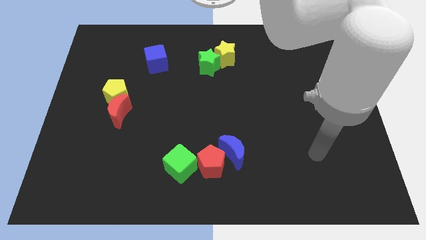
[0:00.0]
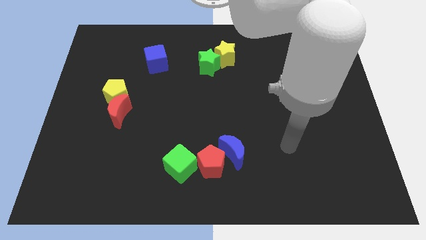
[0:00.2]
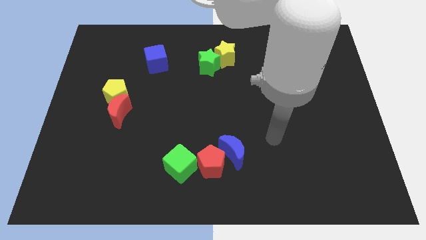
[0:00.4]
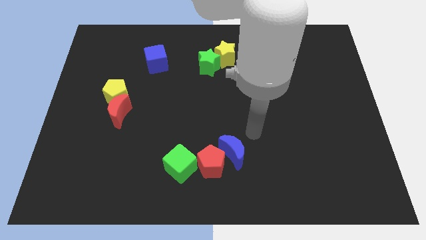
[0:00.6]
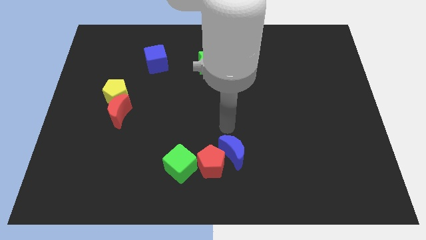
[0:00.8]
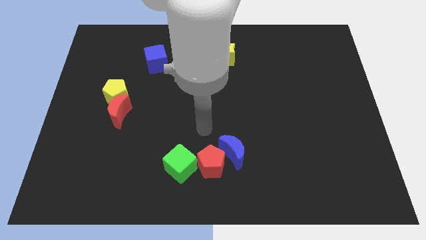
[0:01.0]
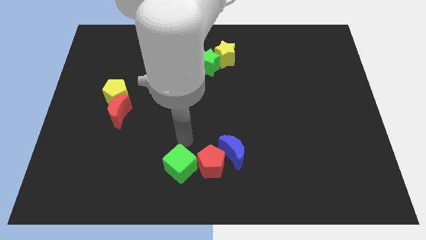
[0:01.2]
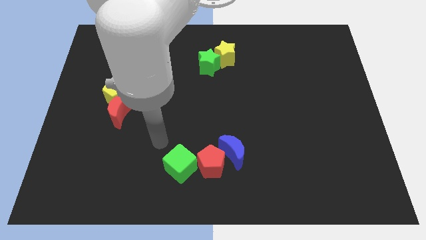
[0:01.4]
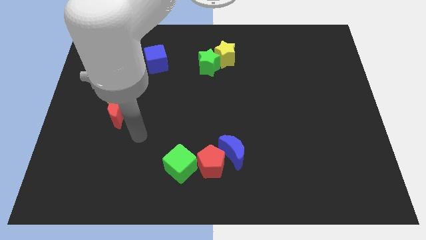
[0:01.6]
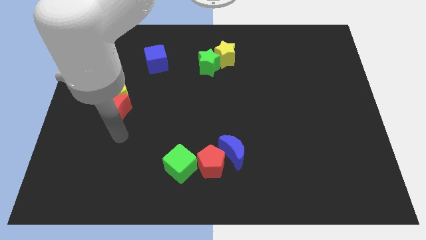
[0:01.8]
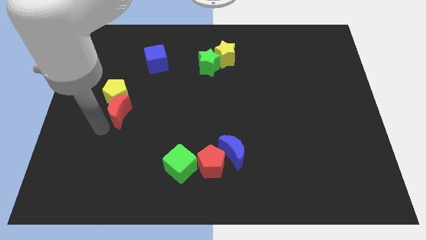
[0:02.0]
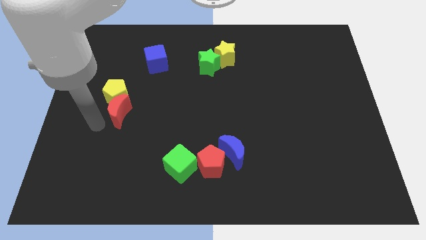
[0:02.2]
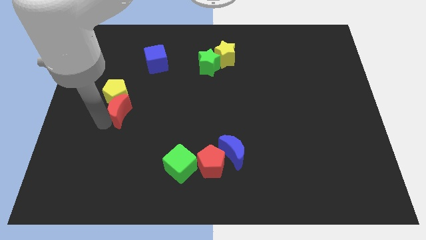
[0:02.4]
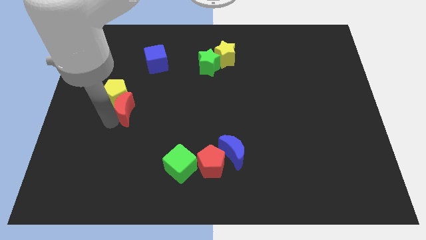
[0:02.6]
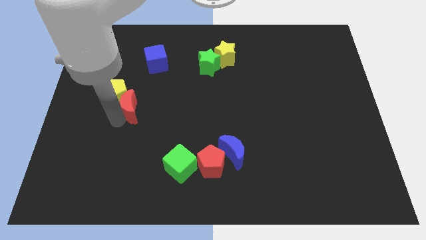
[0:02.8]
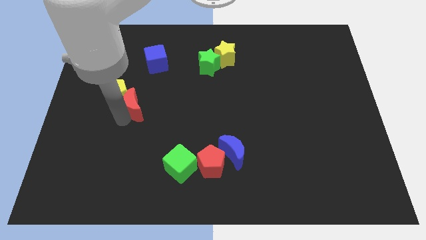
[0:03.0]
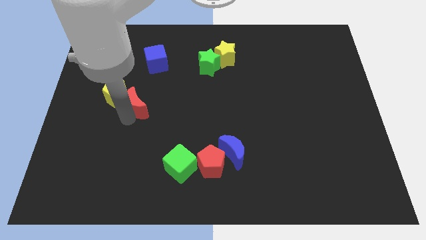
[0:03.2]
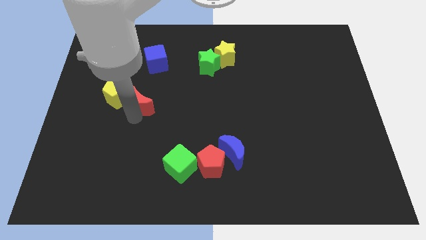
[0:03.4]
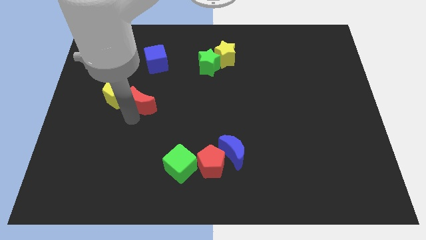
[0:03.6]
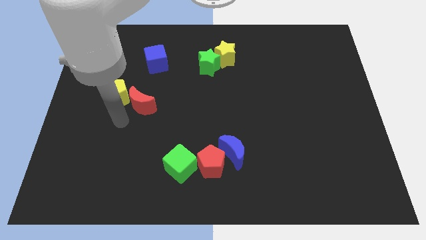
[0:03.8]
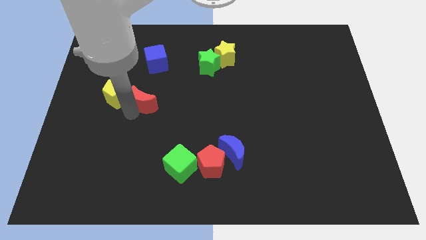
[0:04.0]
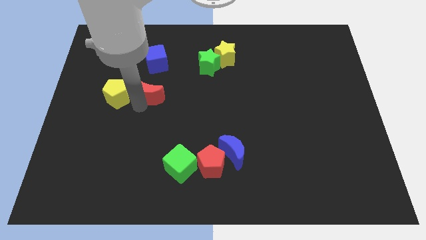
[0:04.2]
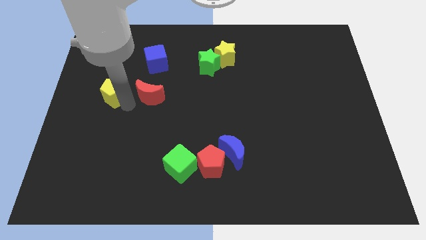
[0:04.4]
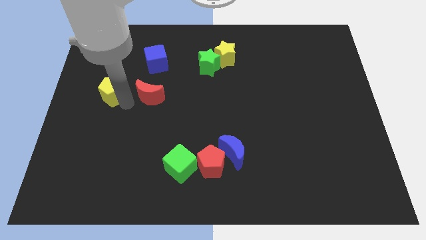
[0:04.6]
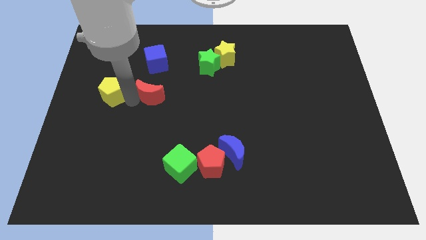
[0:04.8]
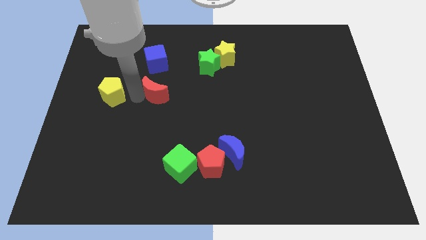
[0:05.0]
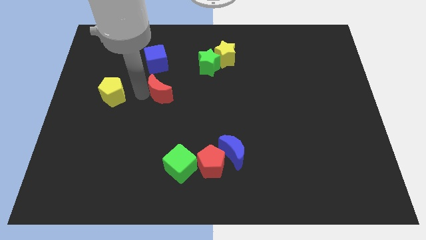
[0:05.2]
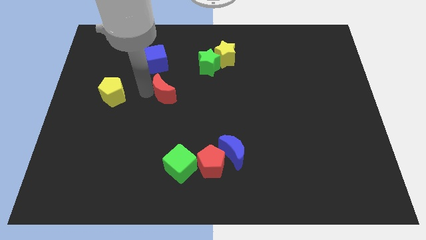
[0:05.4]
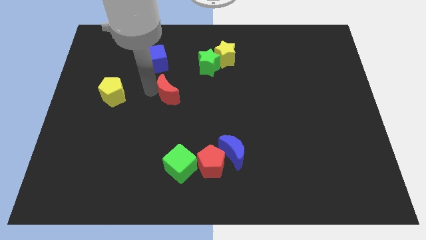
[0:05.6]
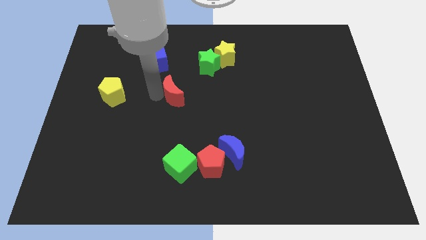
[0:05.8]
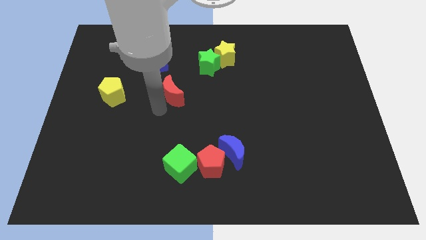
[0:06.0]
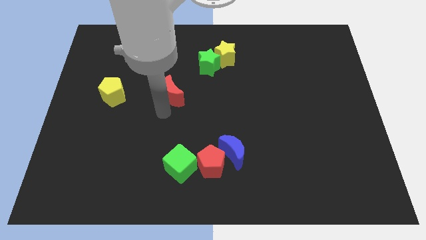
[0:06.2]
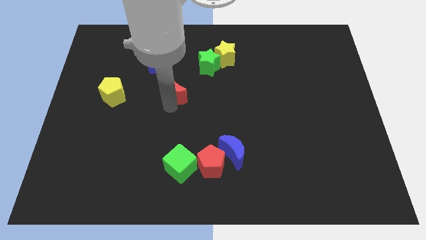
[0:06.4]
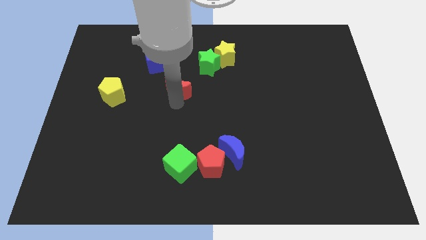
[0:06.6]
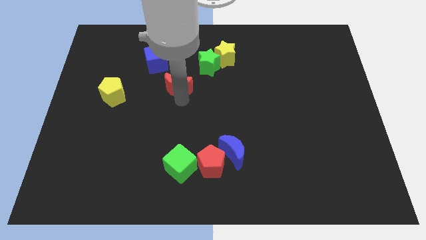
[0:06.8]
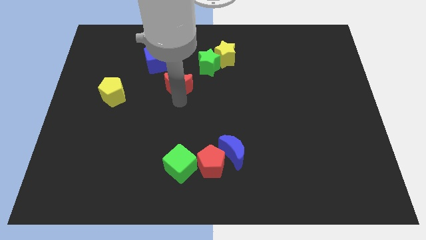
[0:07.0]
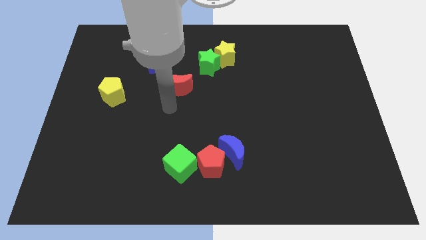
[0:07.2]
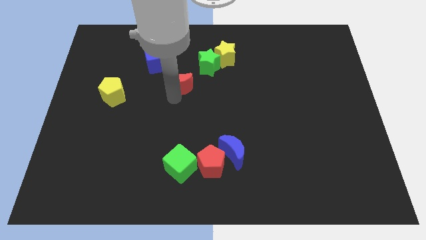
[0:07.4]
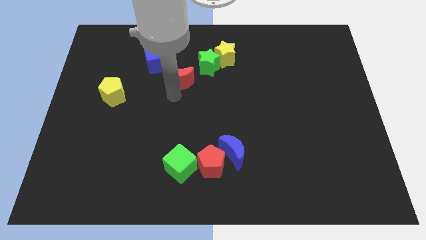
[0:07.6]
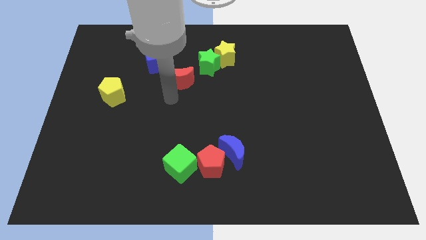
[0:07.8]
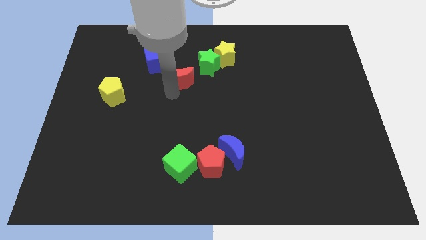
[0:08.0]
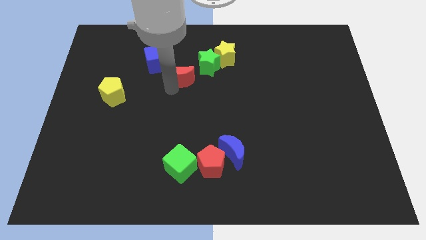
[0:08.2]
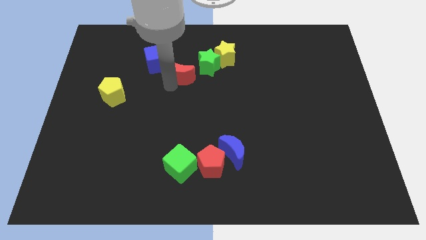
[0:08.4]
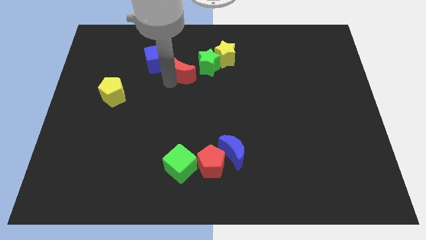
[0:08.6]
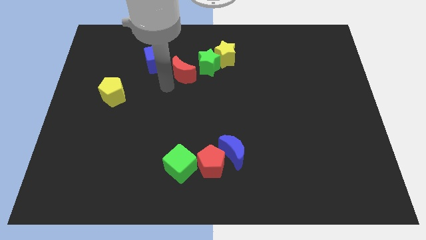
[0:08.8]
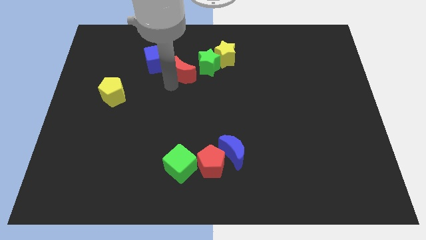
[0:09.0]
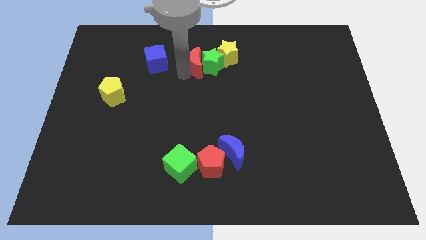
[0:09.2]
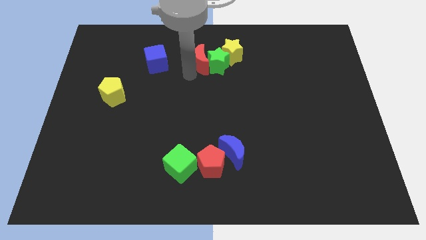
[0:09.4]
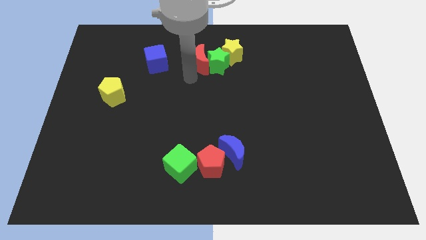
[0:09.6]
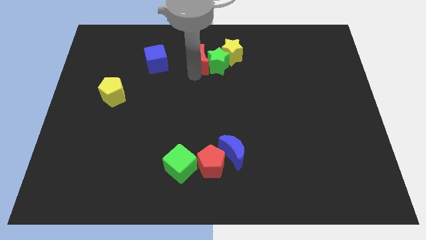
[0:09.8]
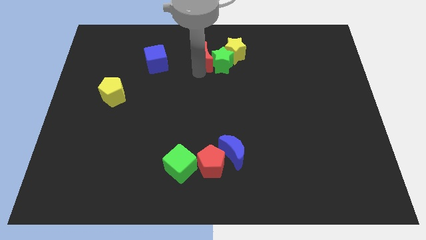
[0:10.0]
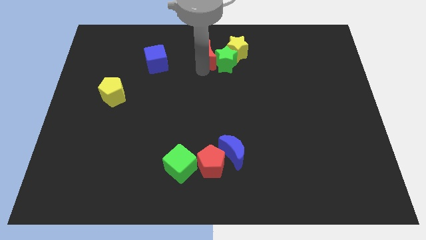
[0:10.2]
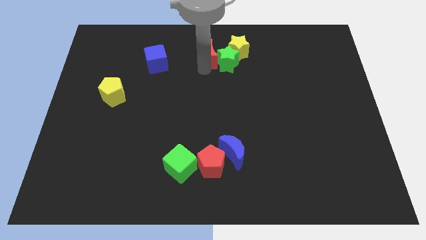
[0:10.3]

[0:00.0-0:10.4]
slide the red moon to the towards your base

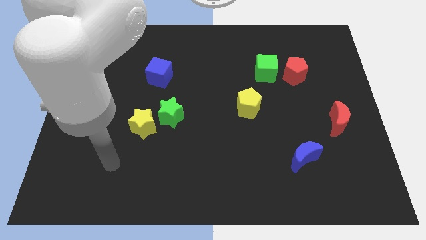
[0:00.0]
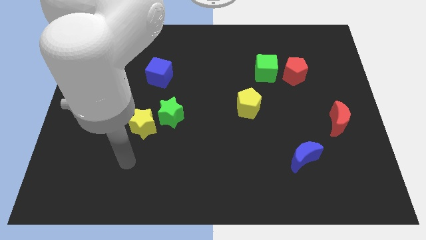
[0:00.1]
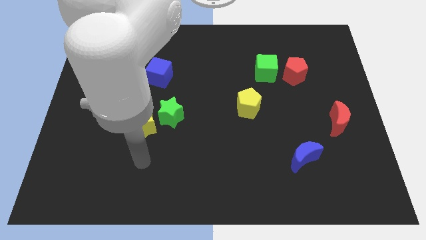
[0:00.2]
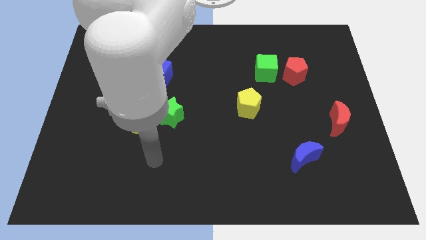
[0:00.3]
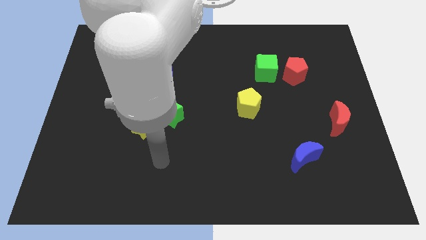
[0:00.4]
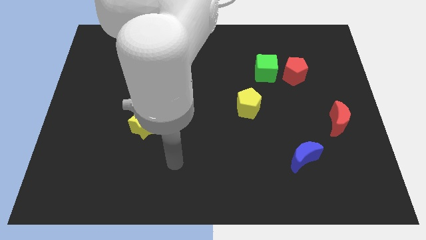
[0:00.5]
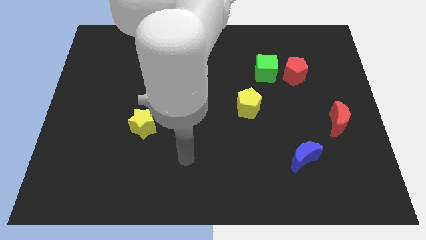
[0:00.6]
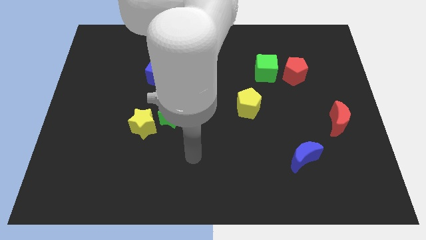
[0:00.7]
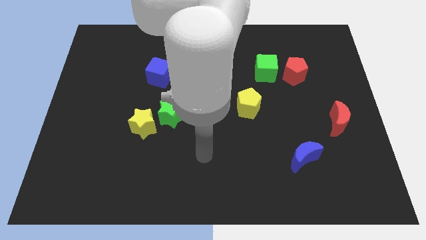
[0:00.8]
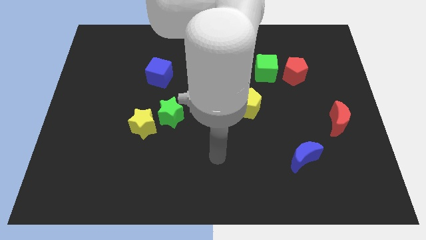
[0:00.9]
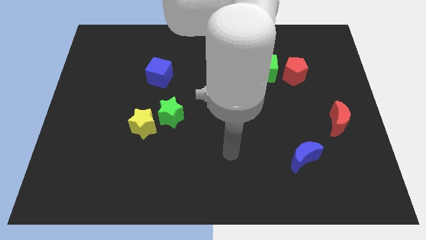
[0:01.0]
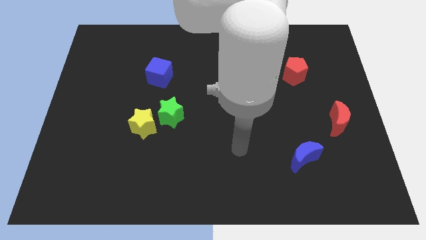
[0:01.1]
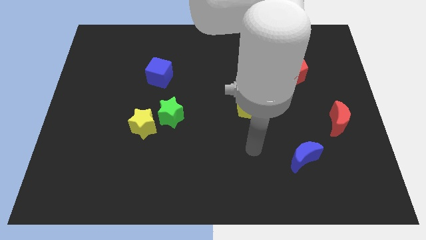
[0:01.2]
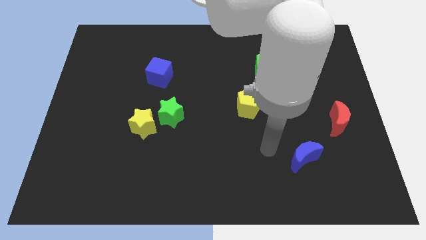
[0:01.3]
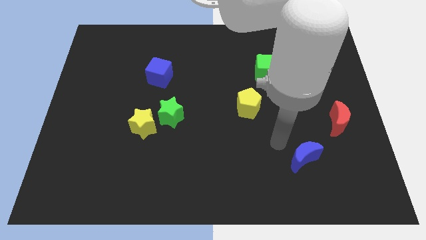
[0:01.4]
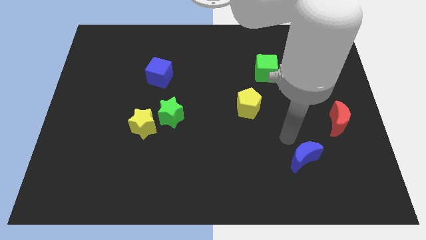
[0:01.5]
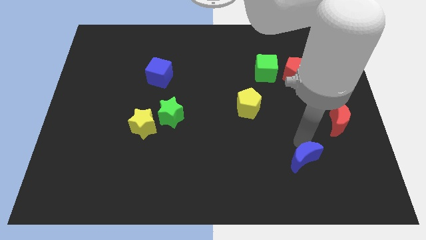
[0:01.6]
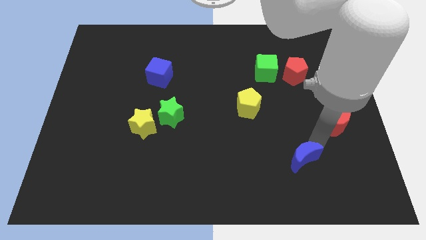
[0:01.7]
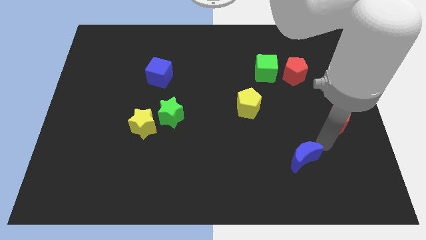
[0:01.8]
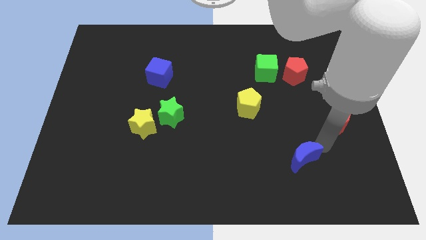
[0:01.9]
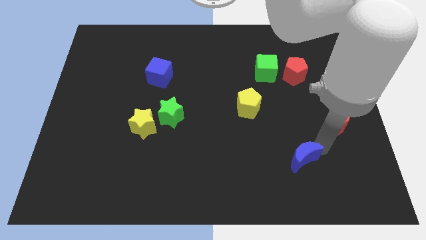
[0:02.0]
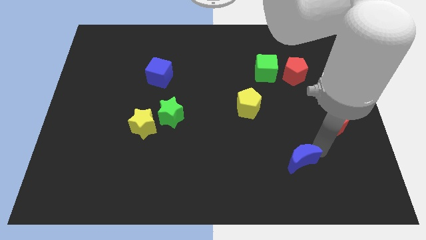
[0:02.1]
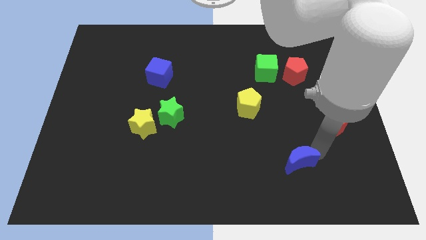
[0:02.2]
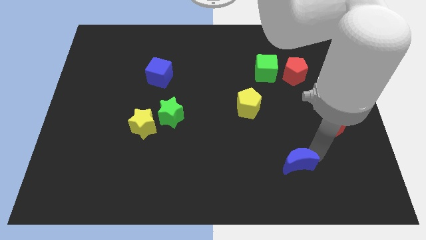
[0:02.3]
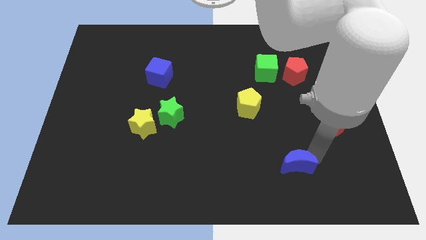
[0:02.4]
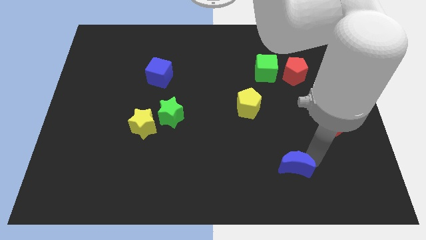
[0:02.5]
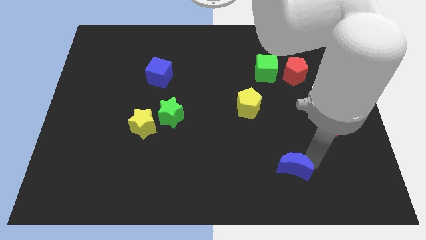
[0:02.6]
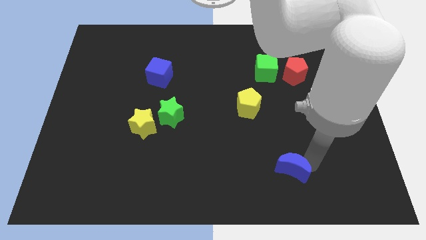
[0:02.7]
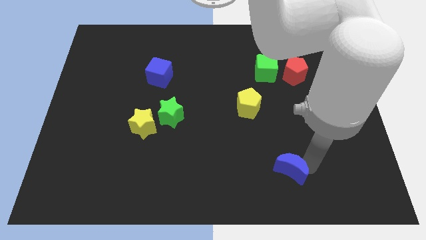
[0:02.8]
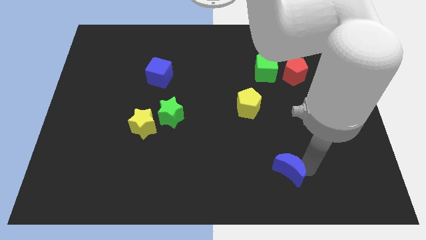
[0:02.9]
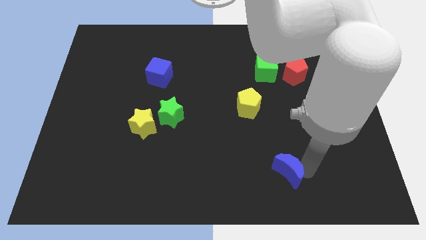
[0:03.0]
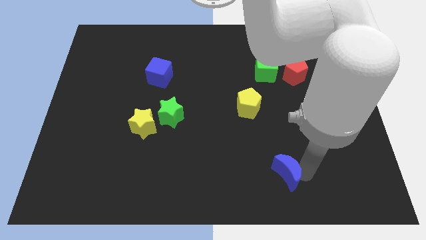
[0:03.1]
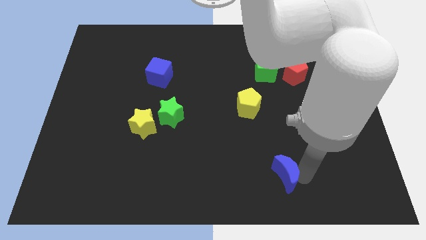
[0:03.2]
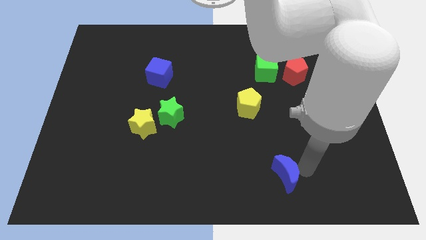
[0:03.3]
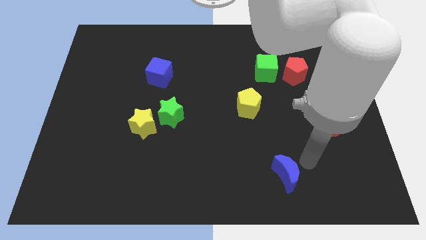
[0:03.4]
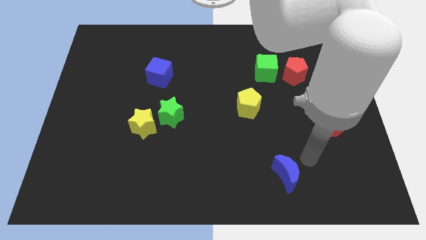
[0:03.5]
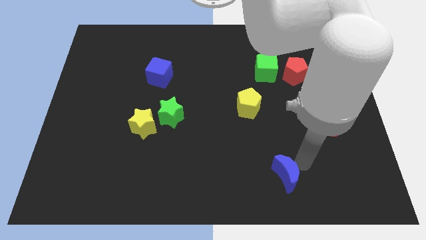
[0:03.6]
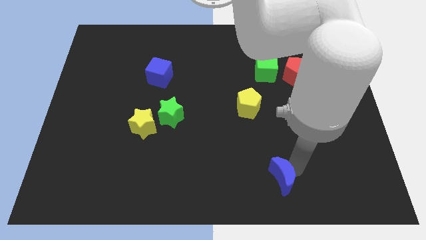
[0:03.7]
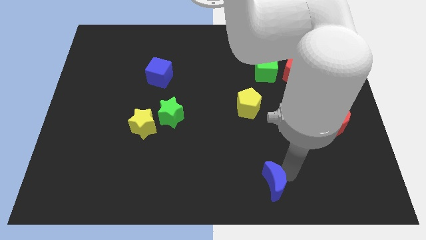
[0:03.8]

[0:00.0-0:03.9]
slide the blue moon to the bottom
